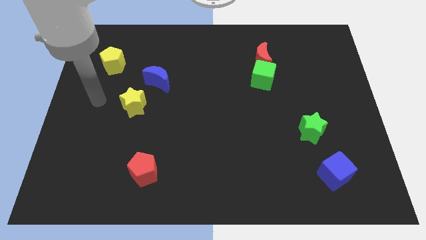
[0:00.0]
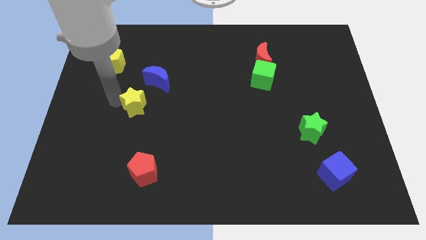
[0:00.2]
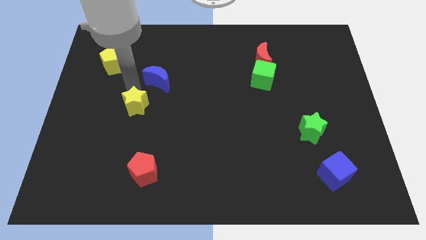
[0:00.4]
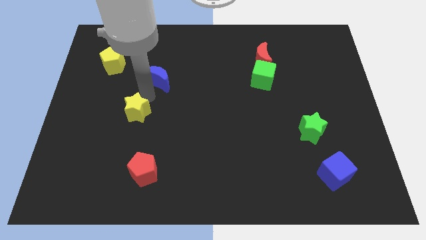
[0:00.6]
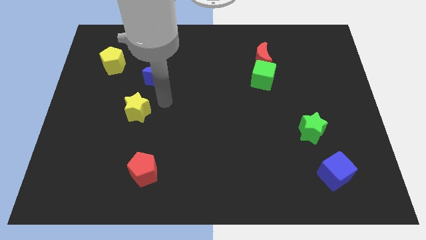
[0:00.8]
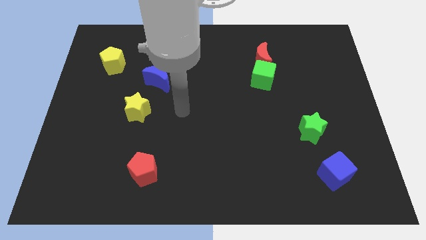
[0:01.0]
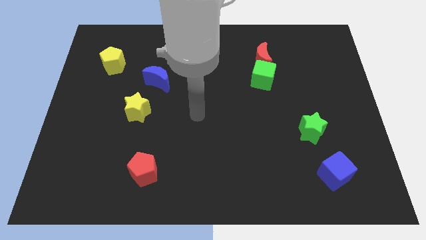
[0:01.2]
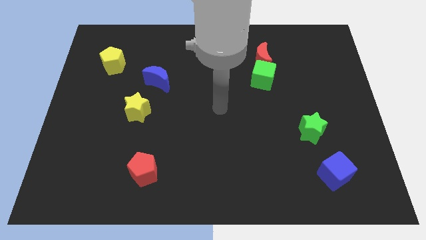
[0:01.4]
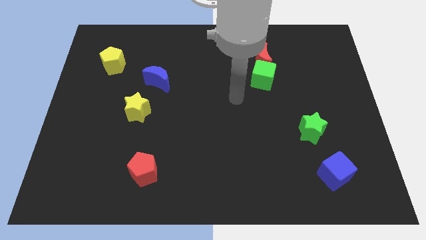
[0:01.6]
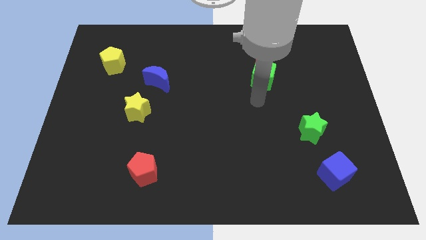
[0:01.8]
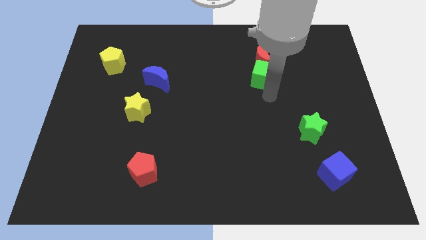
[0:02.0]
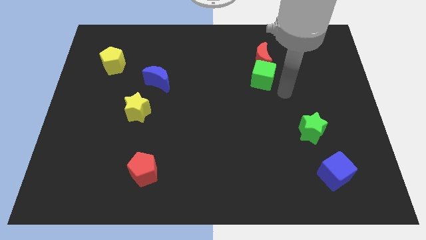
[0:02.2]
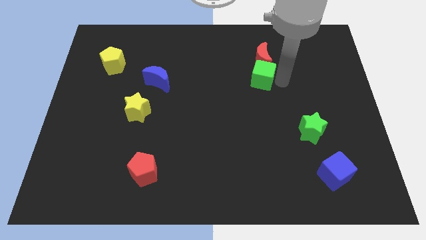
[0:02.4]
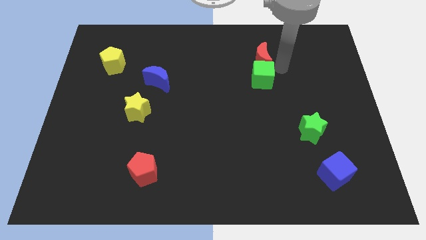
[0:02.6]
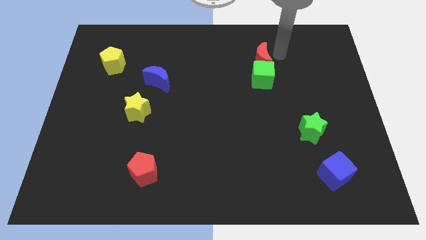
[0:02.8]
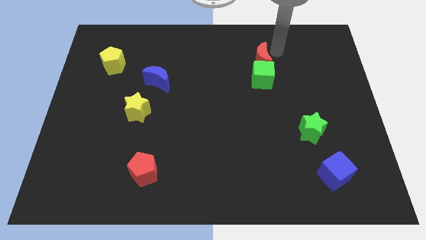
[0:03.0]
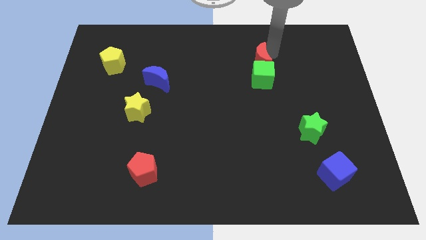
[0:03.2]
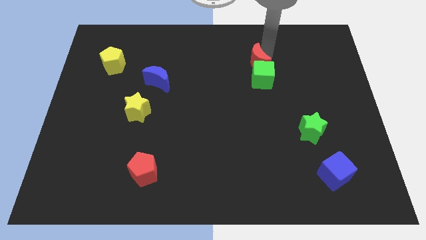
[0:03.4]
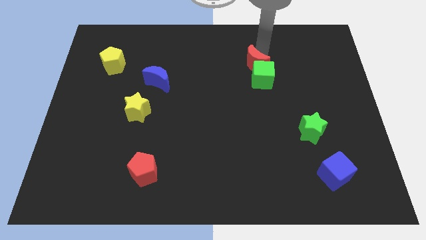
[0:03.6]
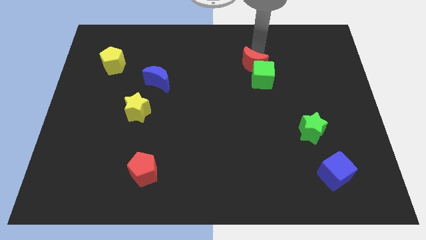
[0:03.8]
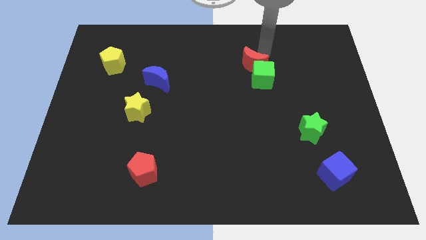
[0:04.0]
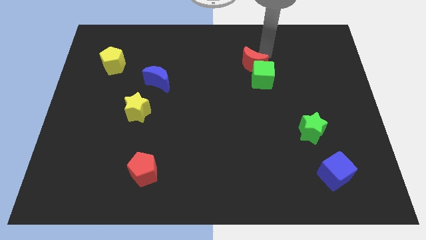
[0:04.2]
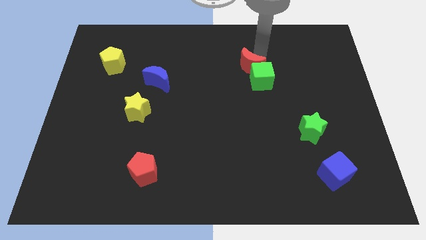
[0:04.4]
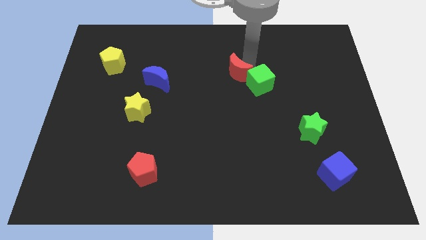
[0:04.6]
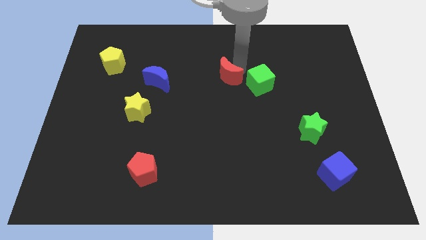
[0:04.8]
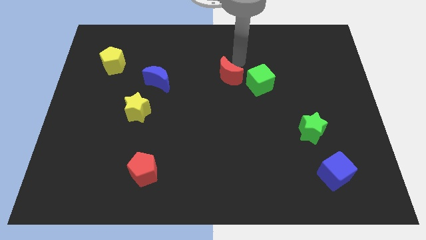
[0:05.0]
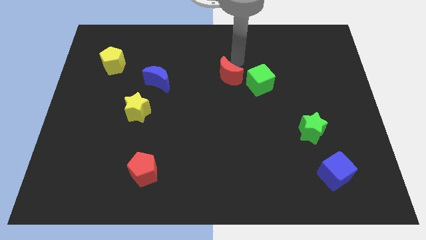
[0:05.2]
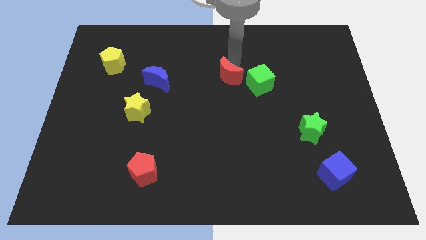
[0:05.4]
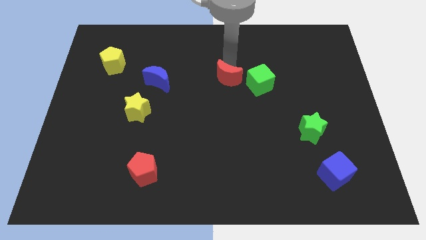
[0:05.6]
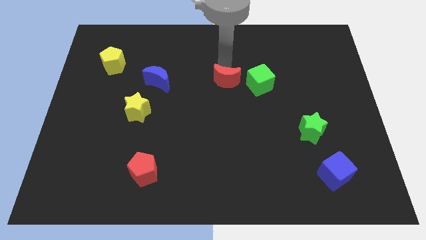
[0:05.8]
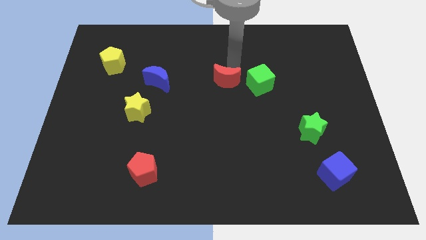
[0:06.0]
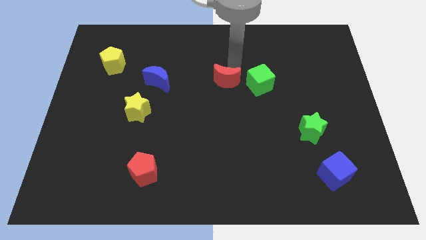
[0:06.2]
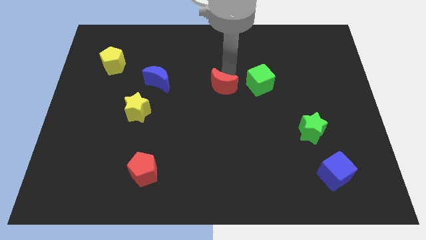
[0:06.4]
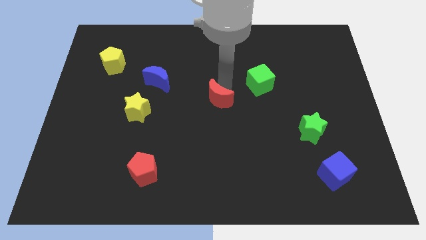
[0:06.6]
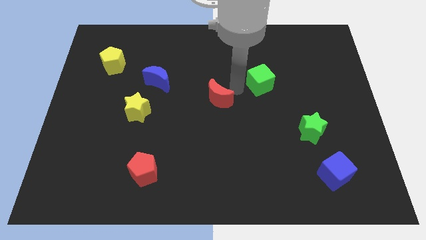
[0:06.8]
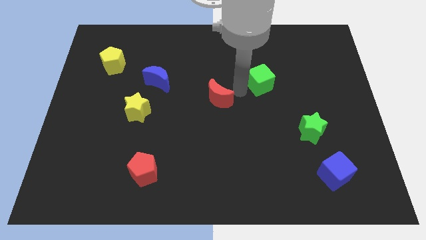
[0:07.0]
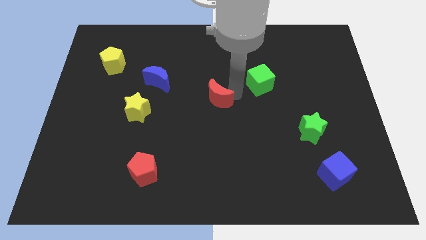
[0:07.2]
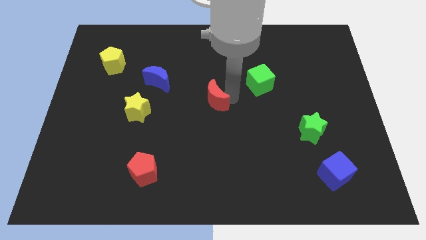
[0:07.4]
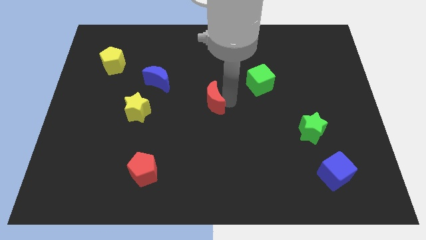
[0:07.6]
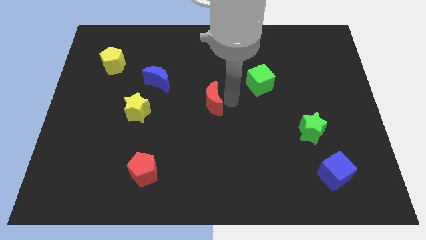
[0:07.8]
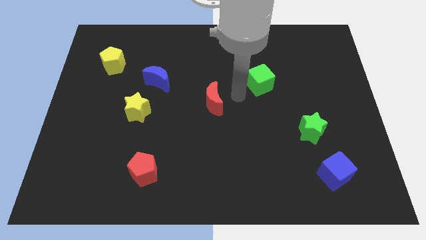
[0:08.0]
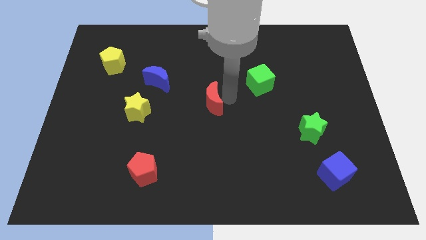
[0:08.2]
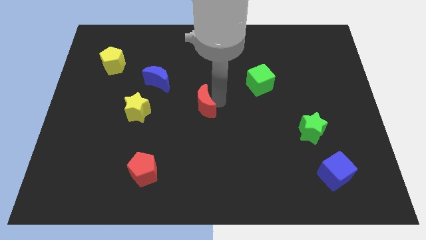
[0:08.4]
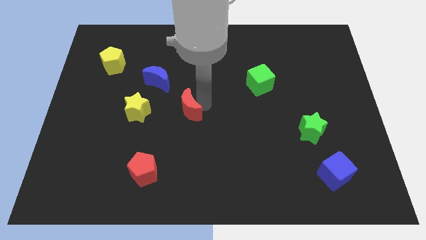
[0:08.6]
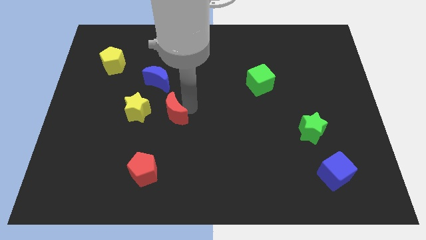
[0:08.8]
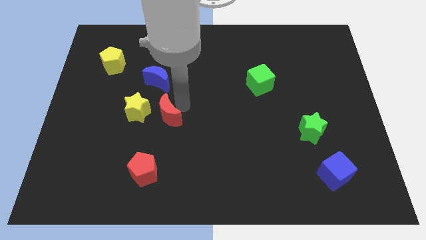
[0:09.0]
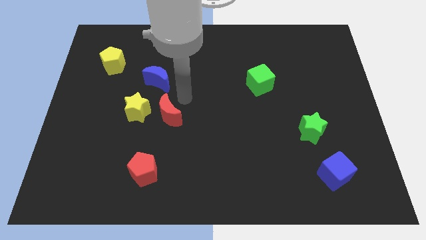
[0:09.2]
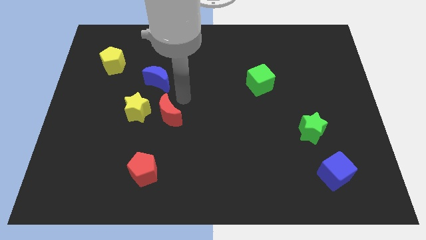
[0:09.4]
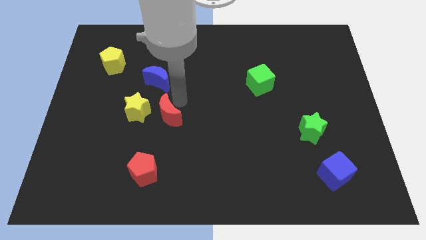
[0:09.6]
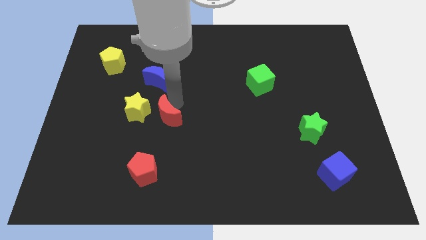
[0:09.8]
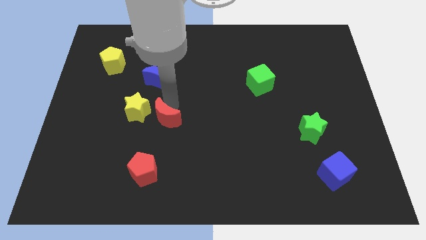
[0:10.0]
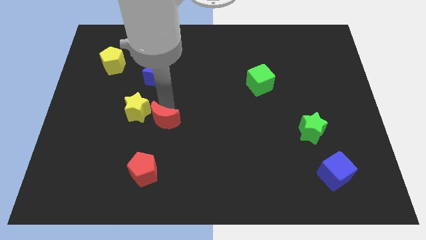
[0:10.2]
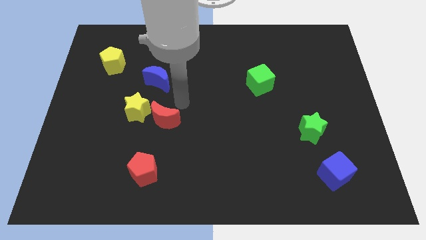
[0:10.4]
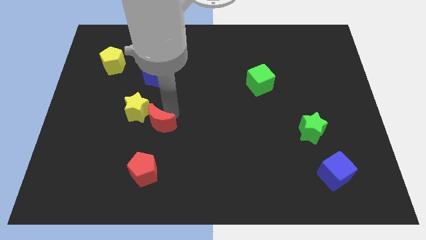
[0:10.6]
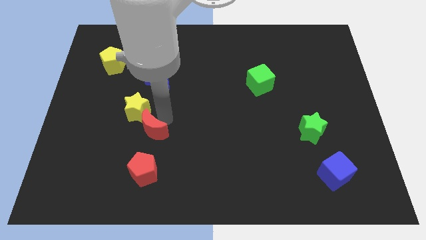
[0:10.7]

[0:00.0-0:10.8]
move the red moon below the yellow star

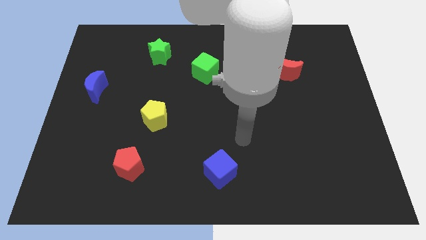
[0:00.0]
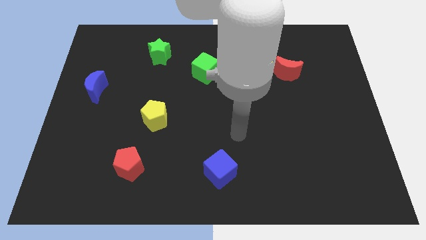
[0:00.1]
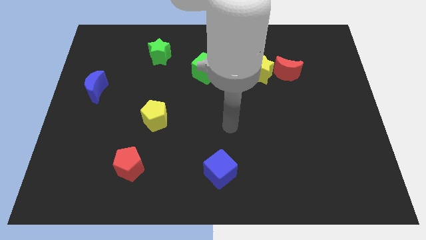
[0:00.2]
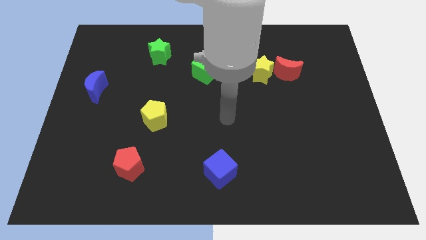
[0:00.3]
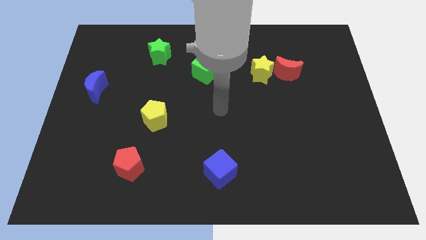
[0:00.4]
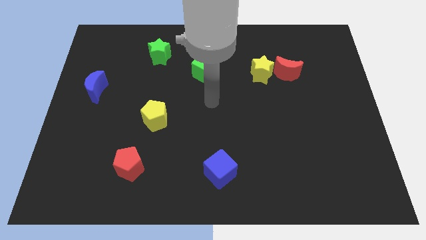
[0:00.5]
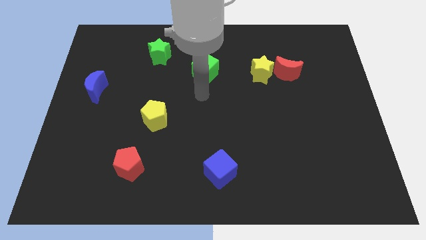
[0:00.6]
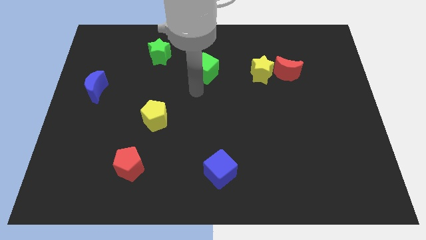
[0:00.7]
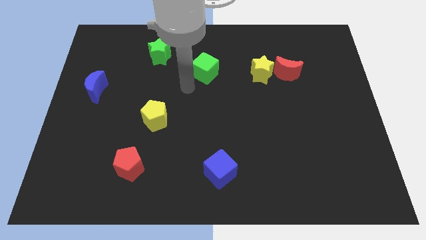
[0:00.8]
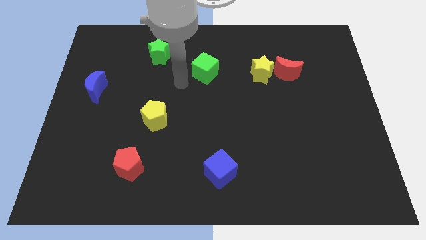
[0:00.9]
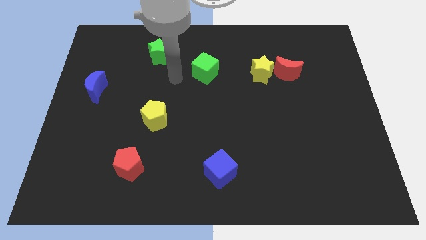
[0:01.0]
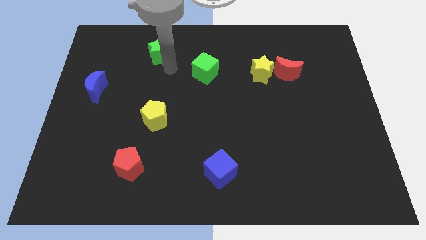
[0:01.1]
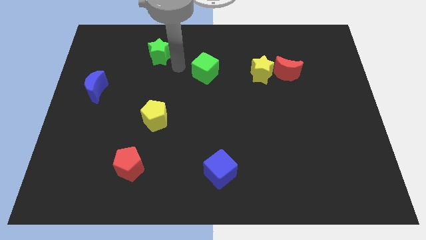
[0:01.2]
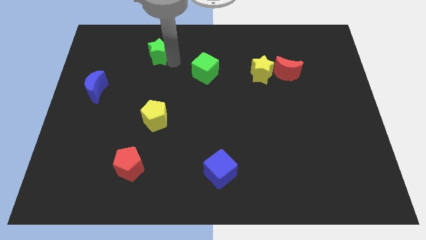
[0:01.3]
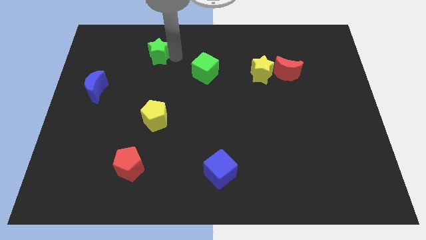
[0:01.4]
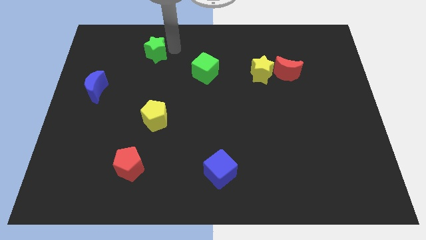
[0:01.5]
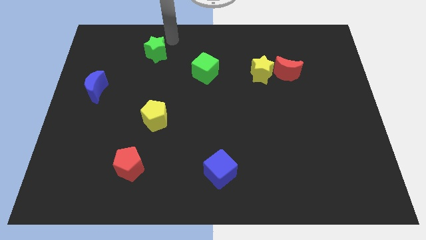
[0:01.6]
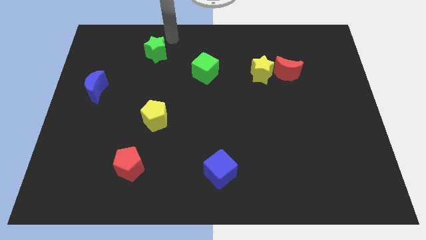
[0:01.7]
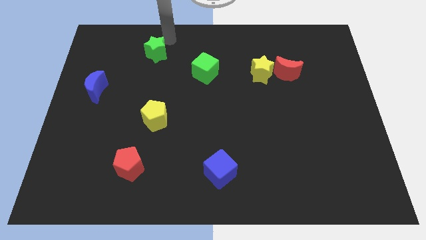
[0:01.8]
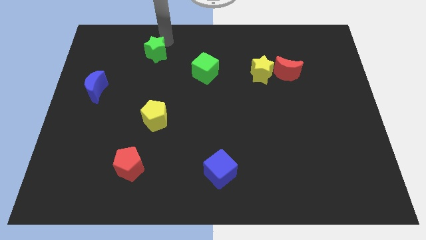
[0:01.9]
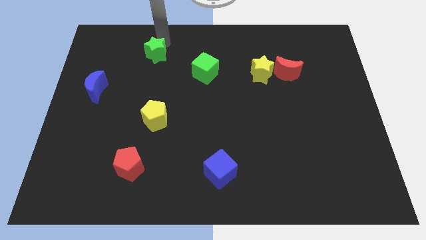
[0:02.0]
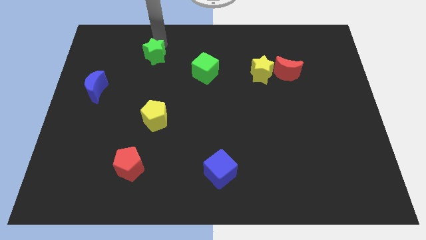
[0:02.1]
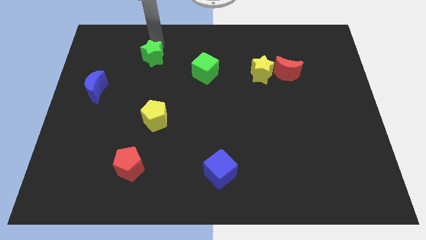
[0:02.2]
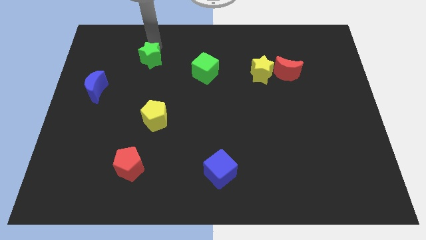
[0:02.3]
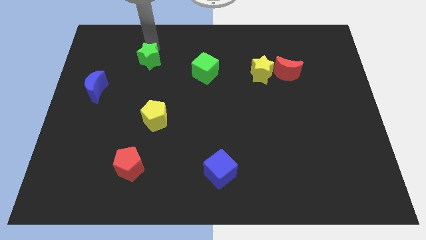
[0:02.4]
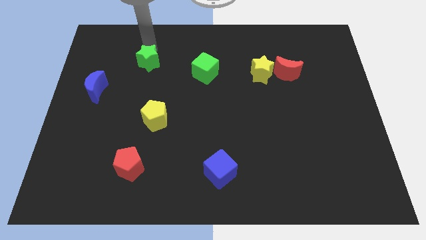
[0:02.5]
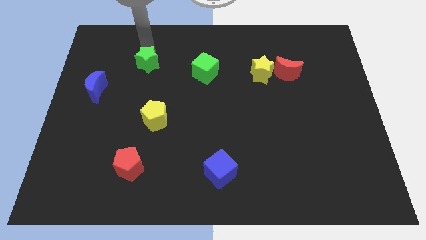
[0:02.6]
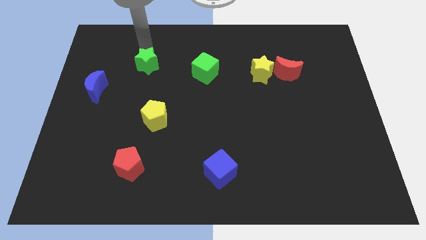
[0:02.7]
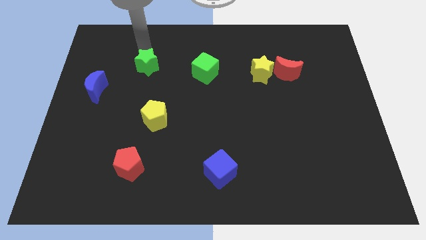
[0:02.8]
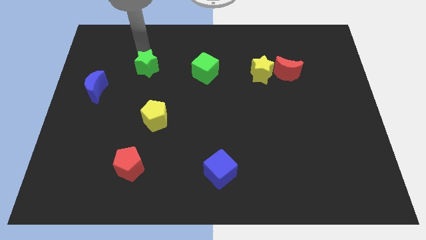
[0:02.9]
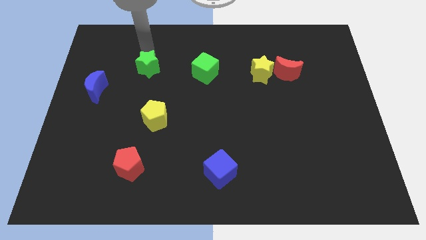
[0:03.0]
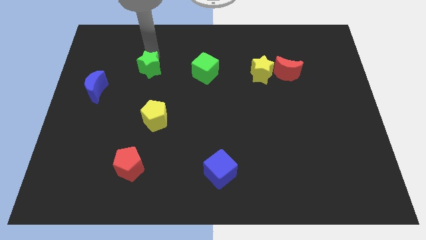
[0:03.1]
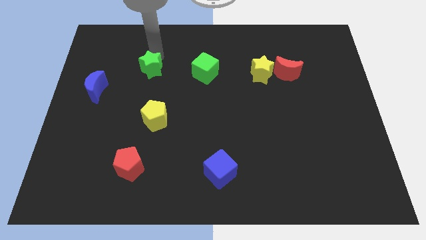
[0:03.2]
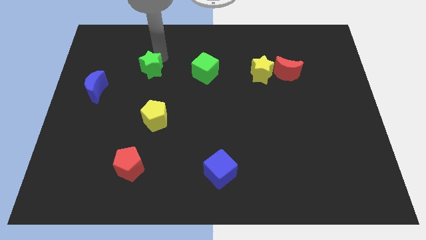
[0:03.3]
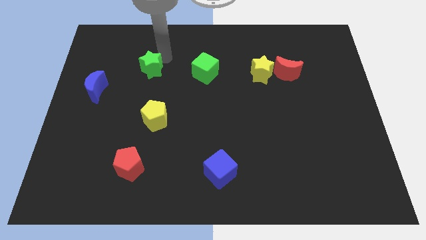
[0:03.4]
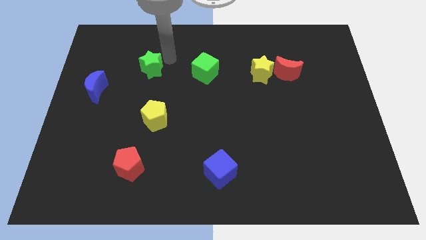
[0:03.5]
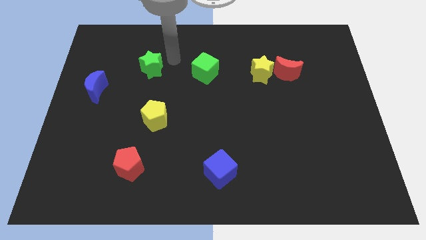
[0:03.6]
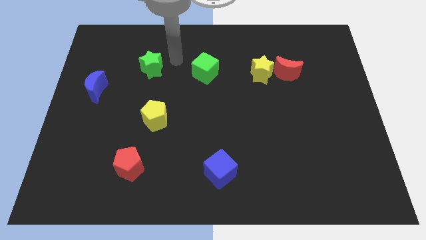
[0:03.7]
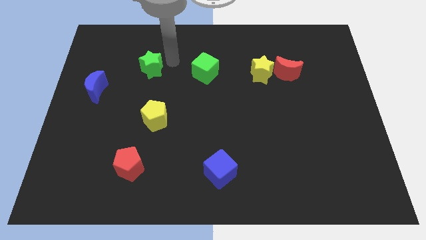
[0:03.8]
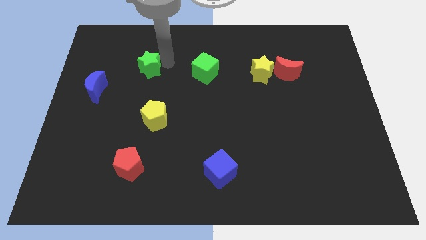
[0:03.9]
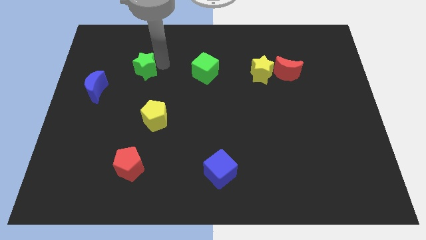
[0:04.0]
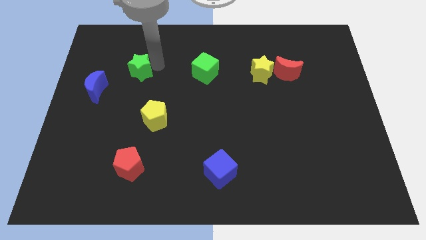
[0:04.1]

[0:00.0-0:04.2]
push the green star diagonally up and to the right of the blue moon
